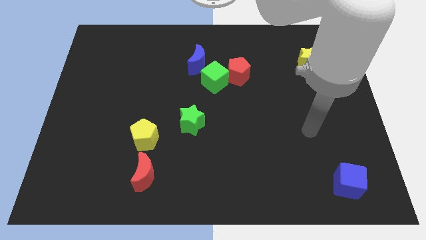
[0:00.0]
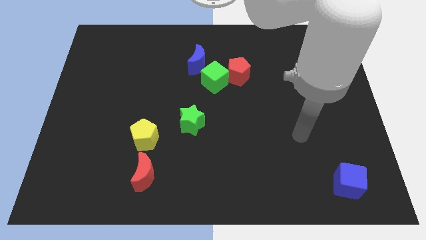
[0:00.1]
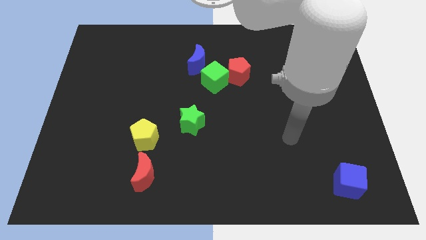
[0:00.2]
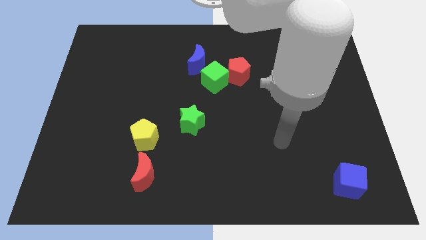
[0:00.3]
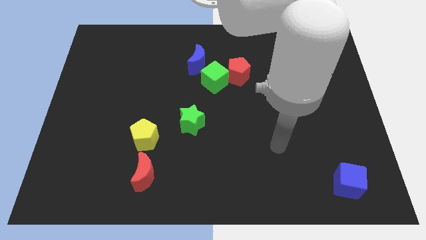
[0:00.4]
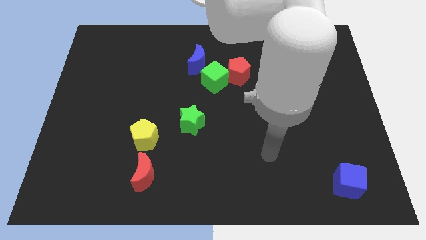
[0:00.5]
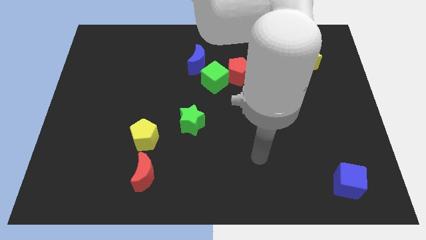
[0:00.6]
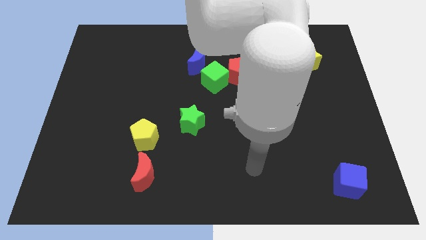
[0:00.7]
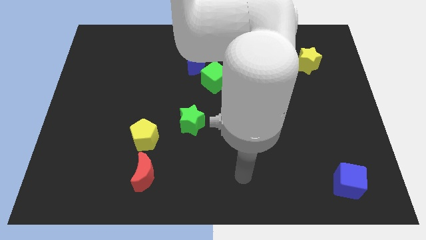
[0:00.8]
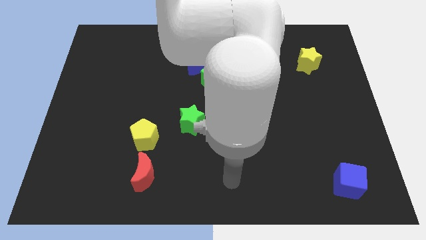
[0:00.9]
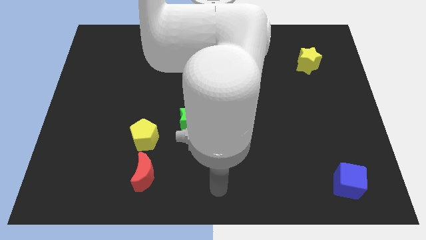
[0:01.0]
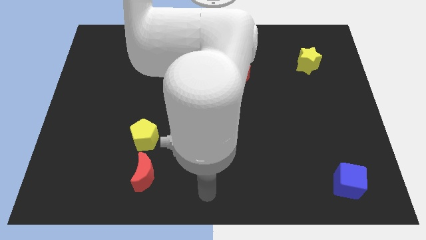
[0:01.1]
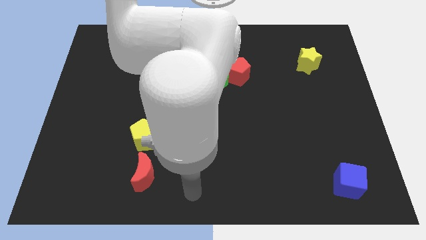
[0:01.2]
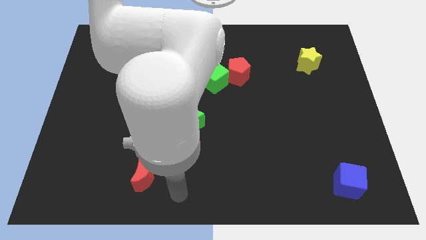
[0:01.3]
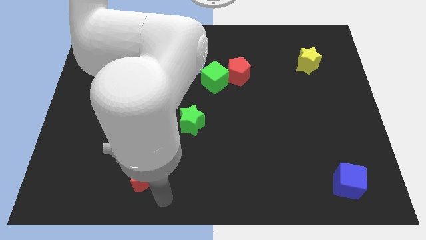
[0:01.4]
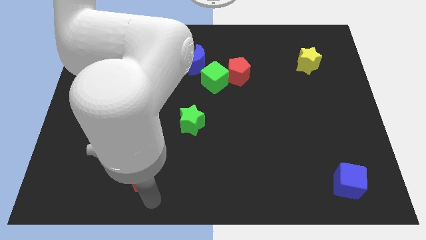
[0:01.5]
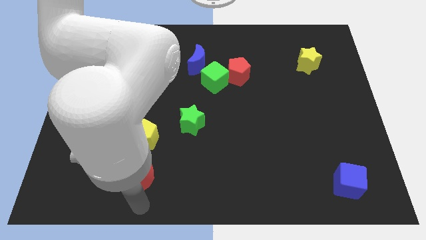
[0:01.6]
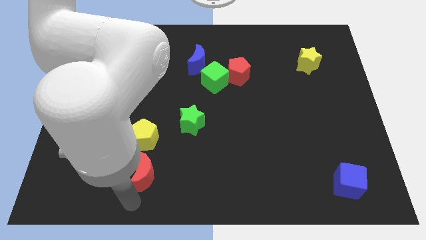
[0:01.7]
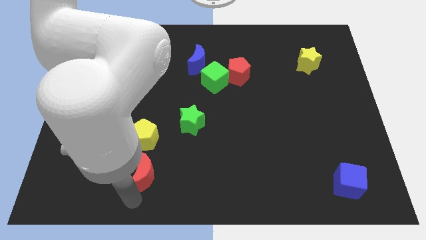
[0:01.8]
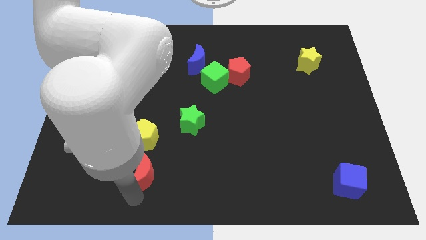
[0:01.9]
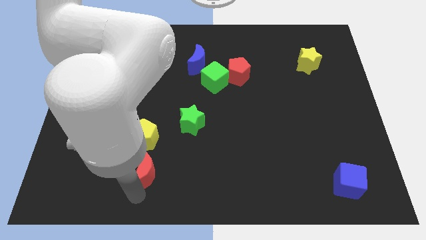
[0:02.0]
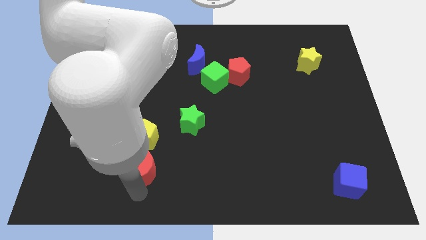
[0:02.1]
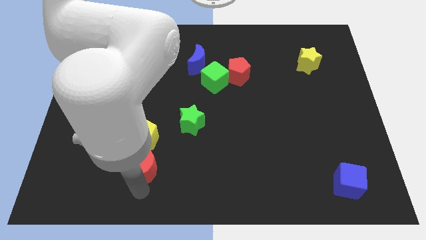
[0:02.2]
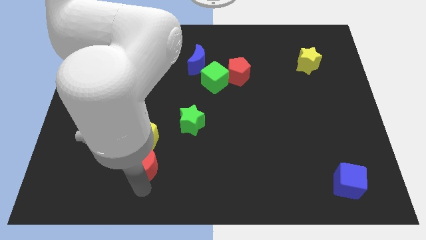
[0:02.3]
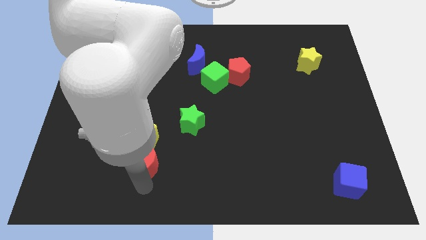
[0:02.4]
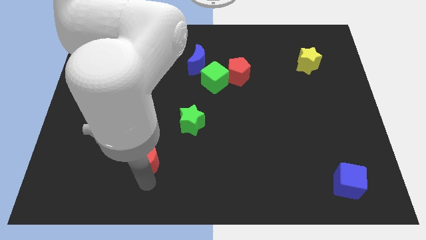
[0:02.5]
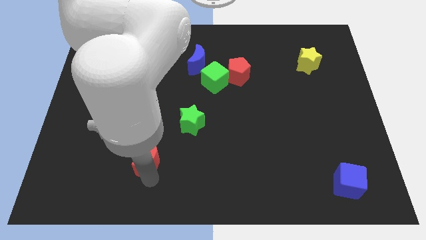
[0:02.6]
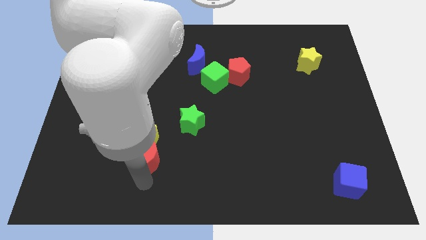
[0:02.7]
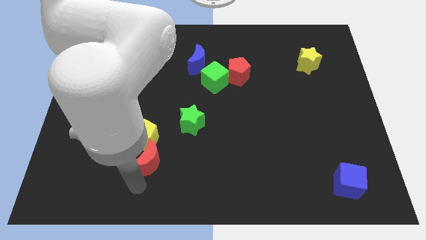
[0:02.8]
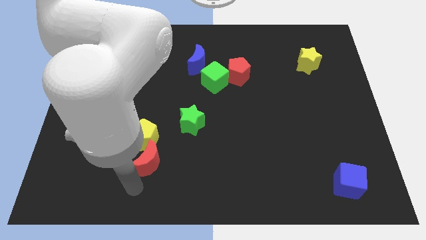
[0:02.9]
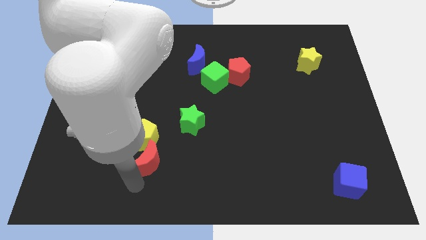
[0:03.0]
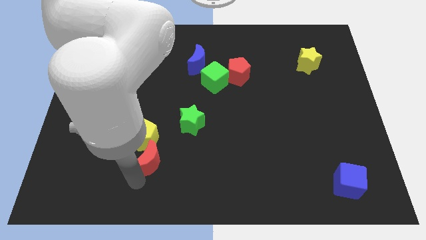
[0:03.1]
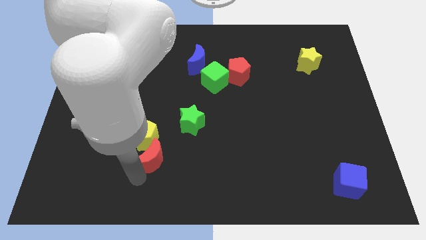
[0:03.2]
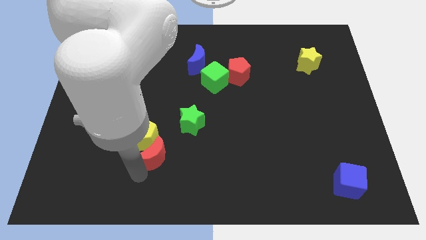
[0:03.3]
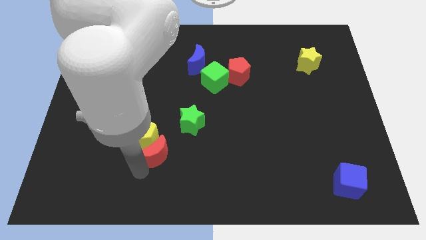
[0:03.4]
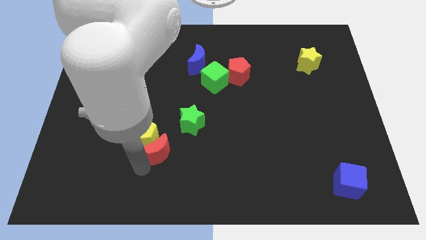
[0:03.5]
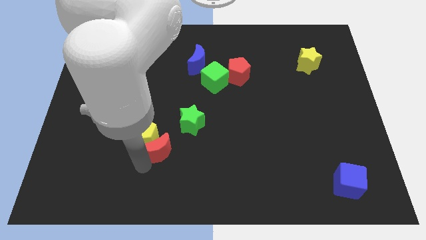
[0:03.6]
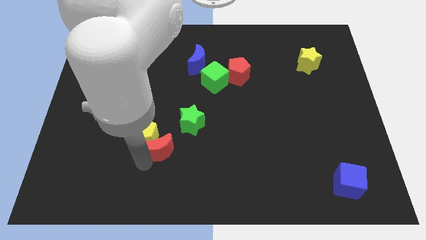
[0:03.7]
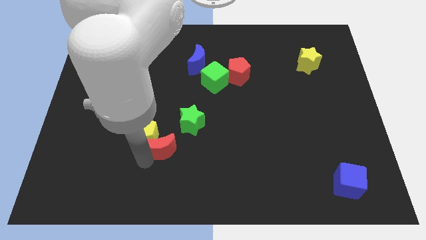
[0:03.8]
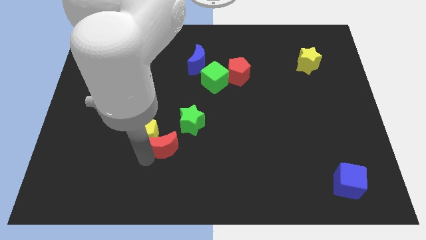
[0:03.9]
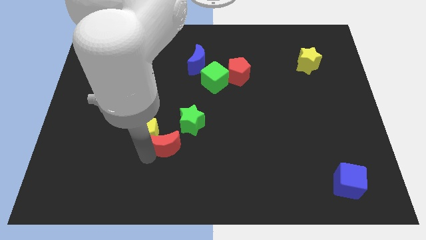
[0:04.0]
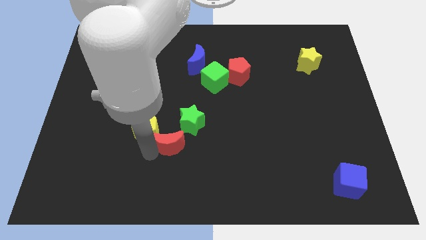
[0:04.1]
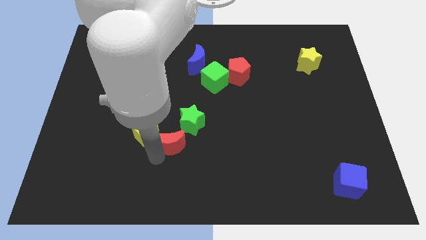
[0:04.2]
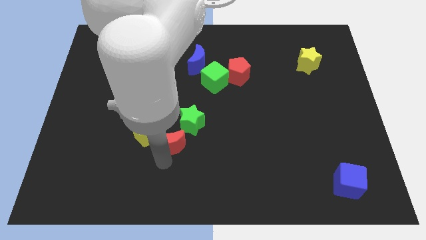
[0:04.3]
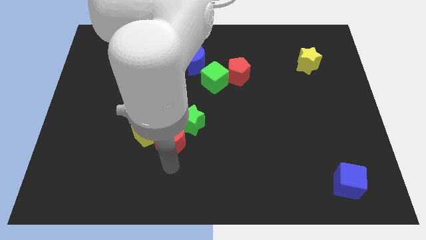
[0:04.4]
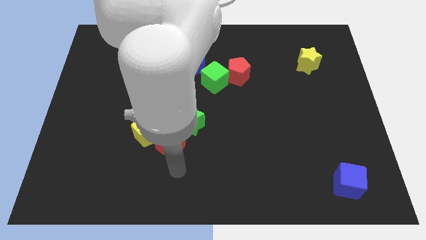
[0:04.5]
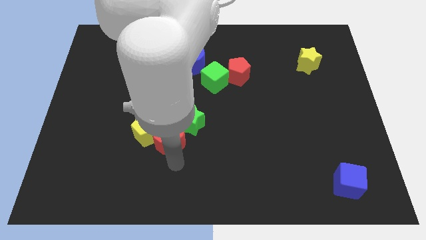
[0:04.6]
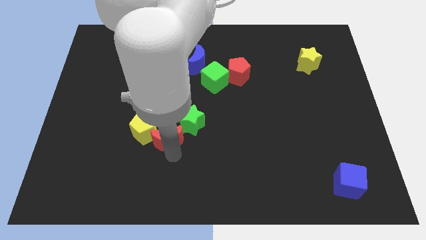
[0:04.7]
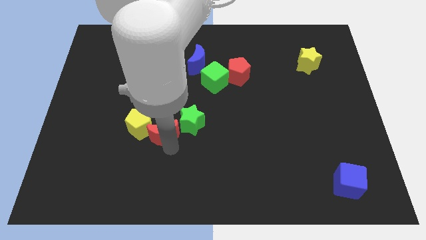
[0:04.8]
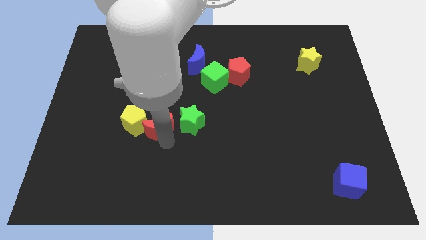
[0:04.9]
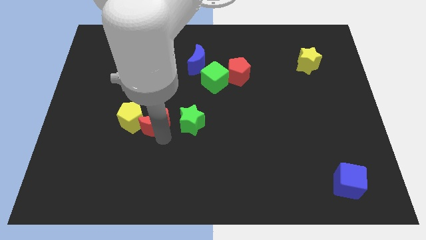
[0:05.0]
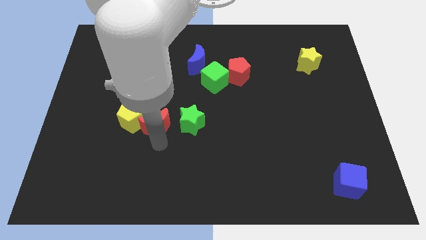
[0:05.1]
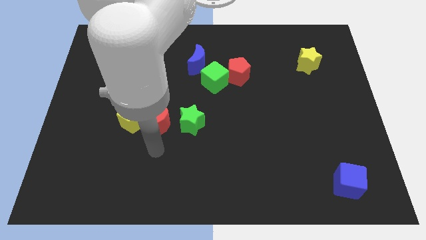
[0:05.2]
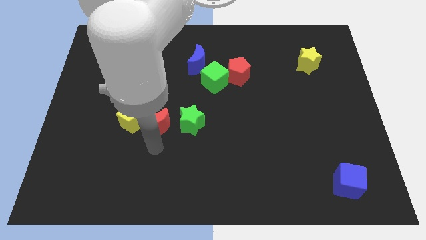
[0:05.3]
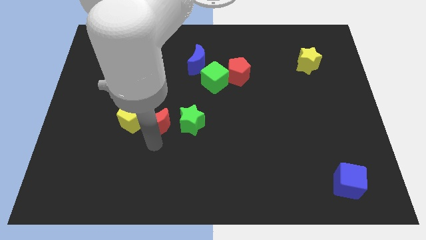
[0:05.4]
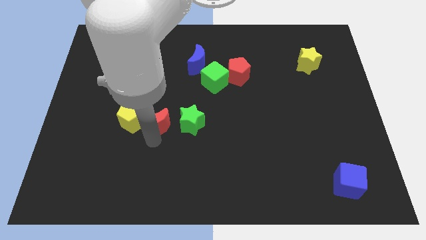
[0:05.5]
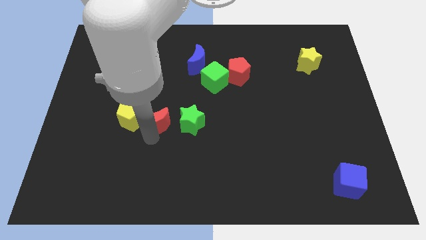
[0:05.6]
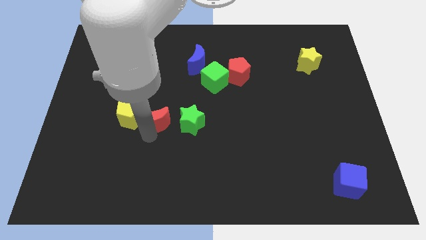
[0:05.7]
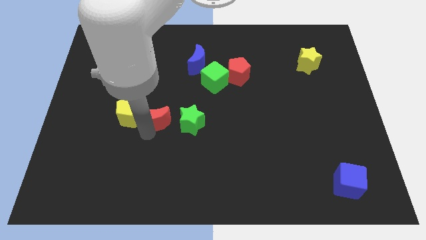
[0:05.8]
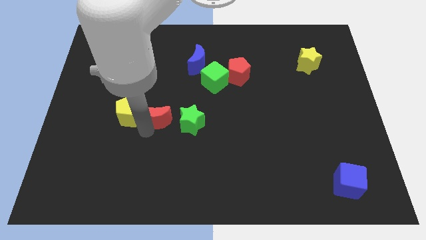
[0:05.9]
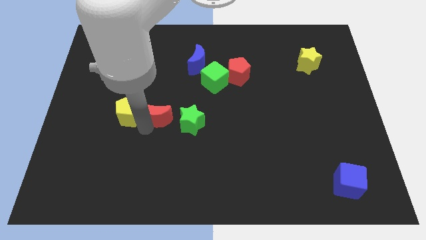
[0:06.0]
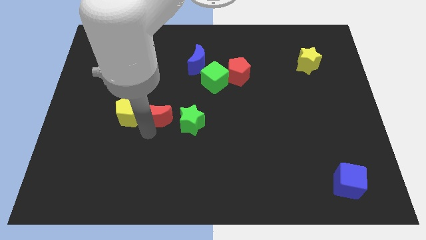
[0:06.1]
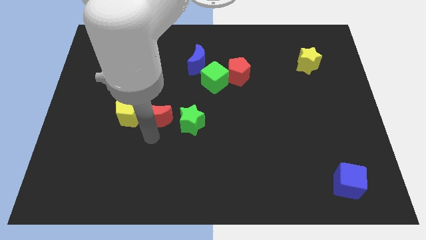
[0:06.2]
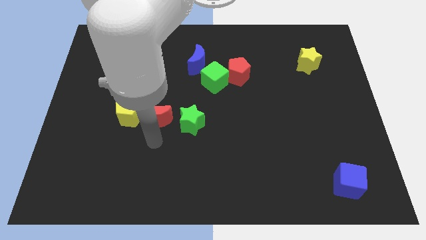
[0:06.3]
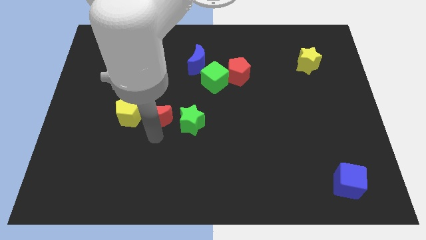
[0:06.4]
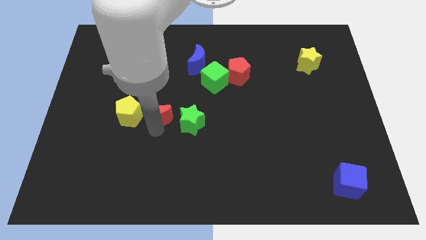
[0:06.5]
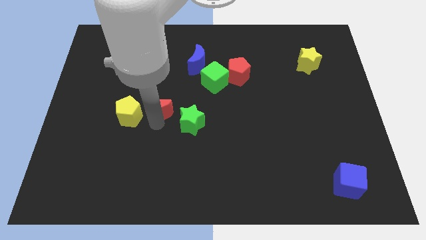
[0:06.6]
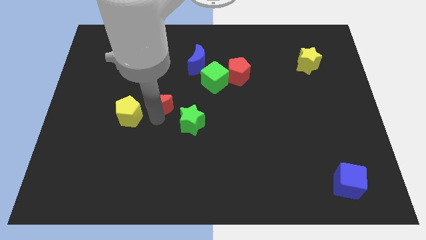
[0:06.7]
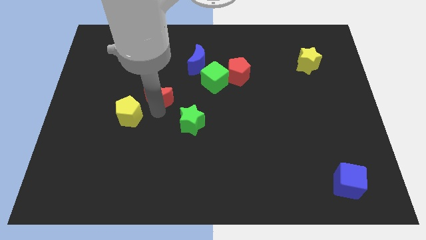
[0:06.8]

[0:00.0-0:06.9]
slide the red moon upwards

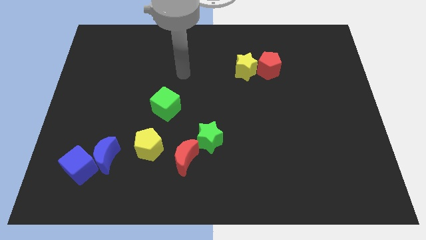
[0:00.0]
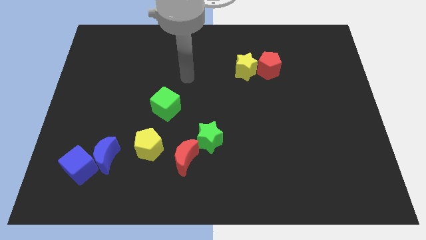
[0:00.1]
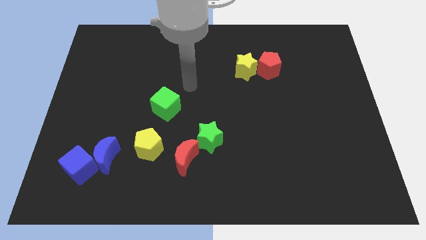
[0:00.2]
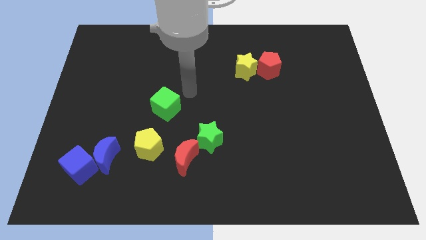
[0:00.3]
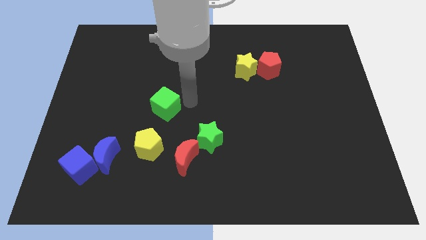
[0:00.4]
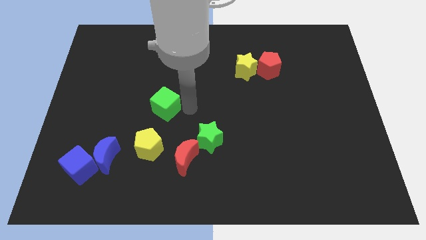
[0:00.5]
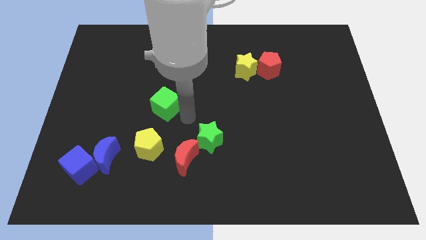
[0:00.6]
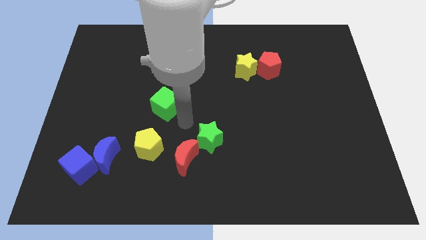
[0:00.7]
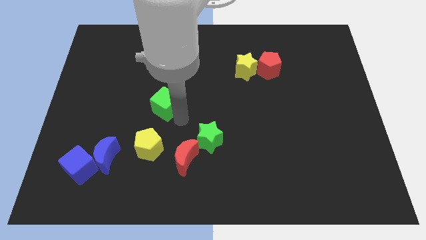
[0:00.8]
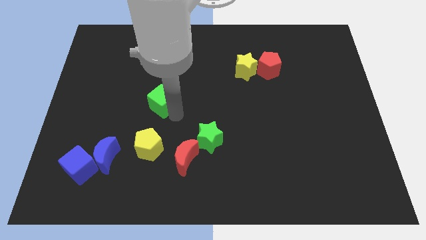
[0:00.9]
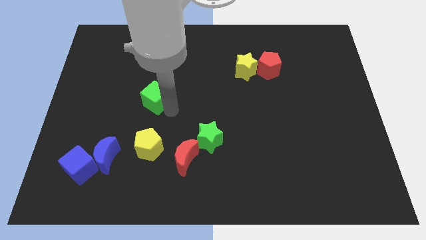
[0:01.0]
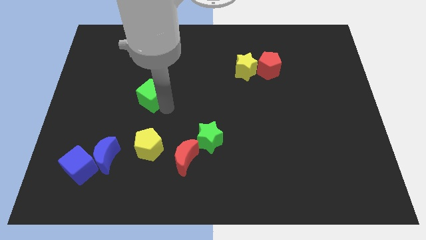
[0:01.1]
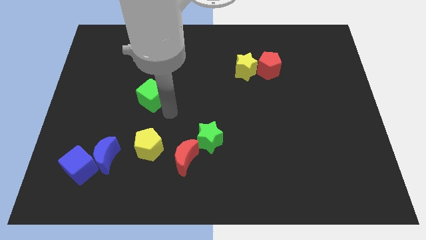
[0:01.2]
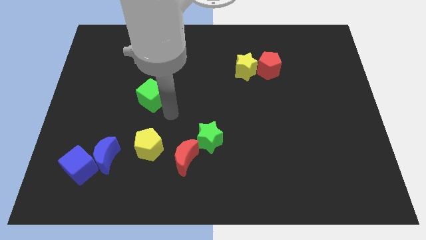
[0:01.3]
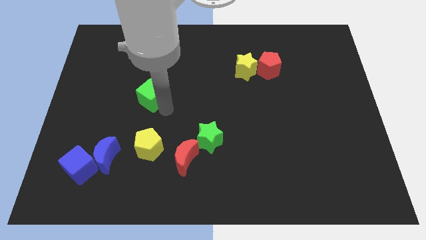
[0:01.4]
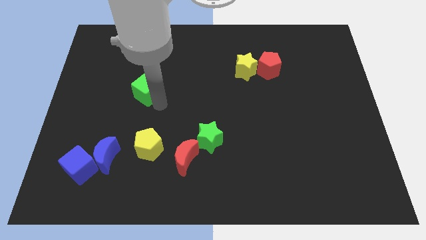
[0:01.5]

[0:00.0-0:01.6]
slightly move the green cube up and then to the left
